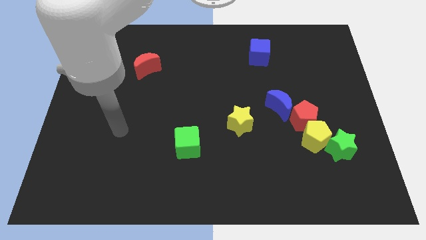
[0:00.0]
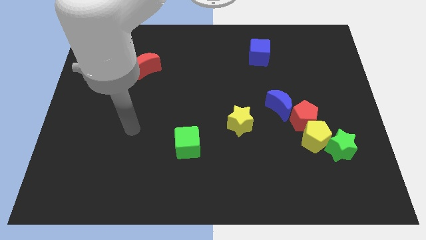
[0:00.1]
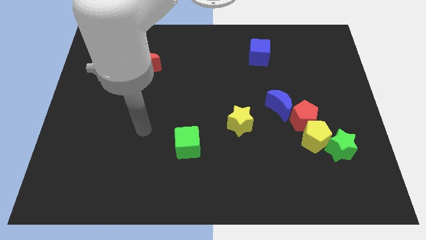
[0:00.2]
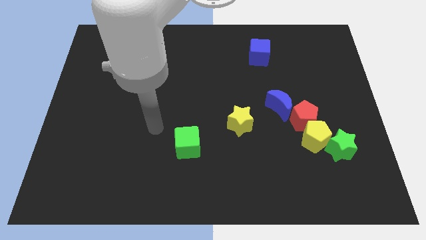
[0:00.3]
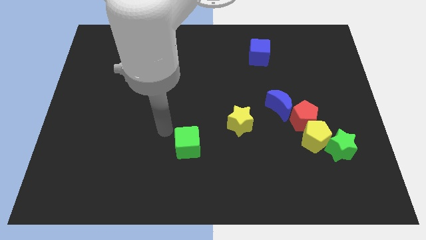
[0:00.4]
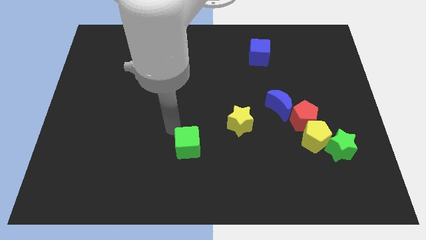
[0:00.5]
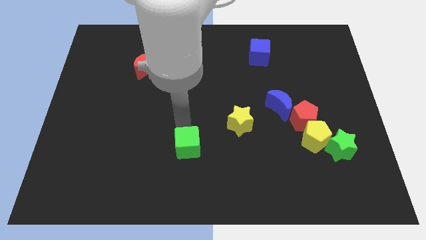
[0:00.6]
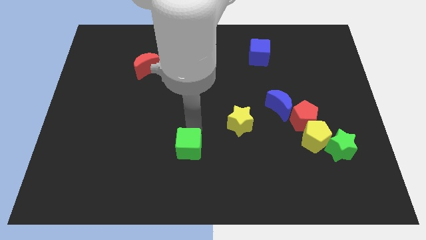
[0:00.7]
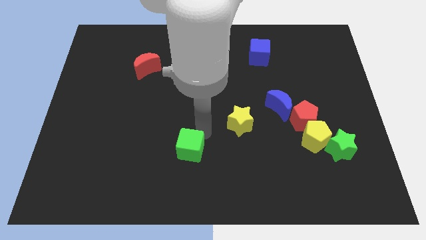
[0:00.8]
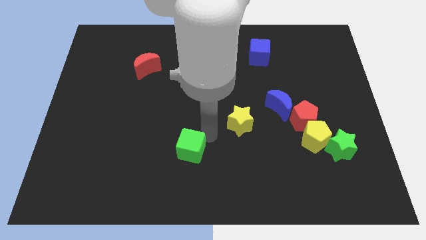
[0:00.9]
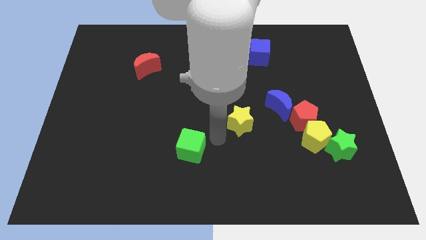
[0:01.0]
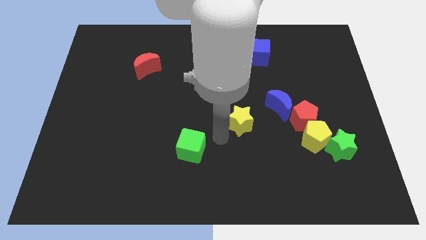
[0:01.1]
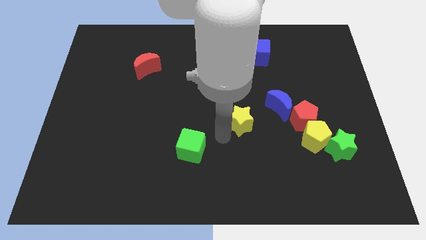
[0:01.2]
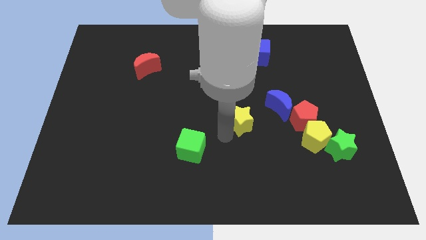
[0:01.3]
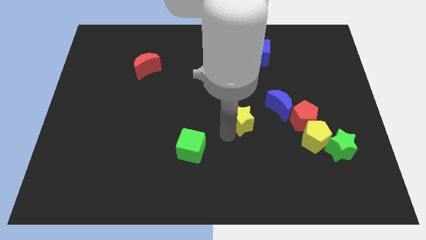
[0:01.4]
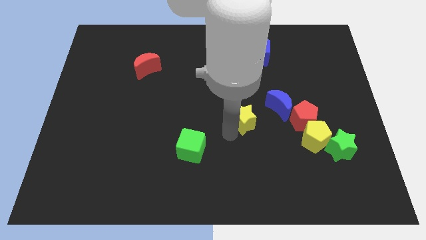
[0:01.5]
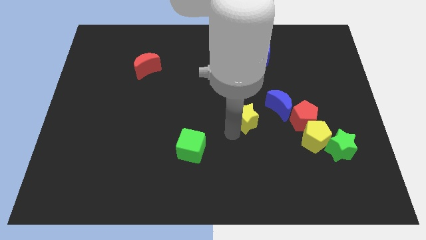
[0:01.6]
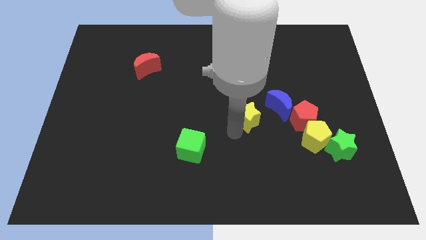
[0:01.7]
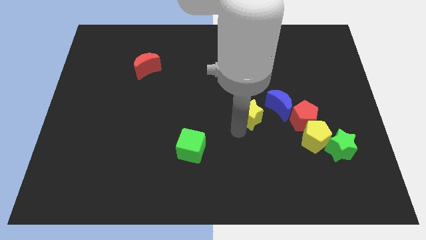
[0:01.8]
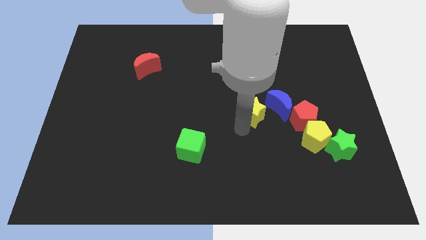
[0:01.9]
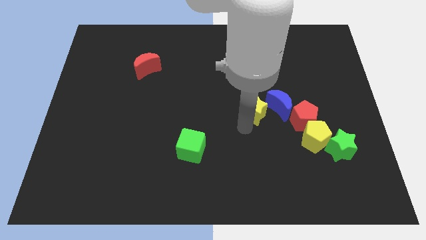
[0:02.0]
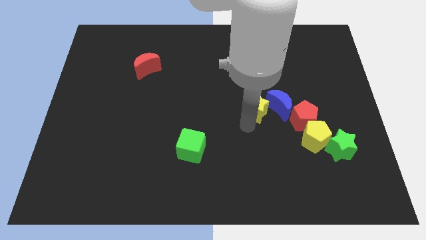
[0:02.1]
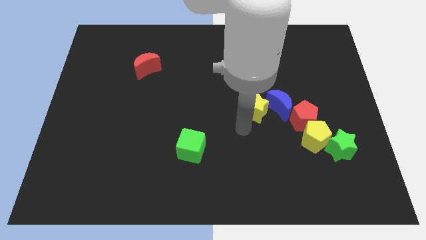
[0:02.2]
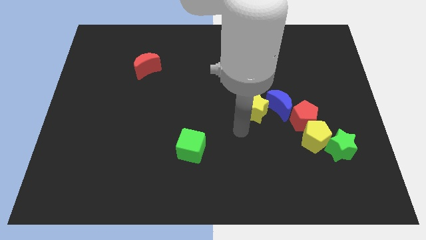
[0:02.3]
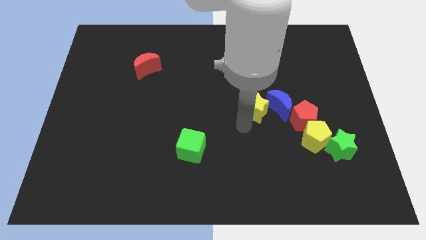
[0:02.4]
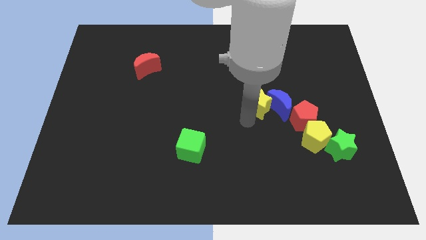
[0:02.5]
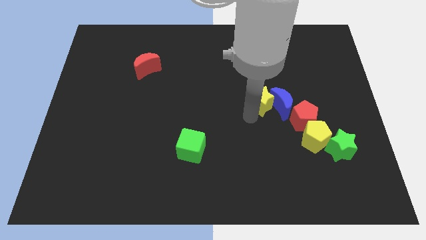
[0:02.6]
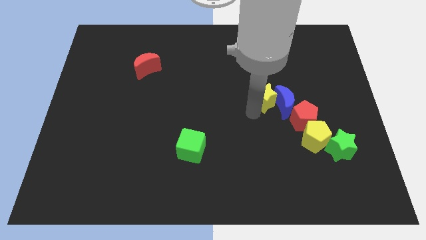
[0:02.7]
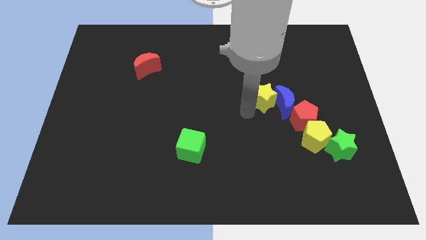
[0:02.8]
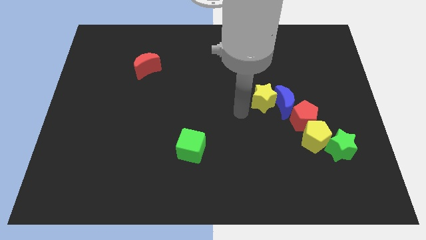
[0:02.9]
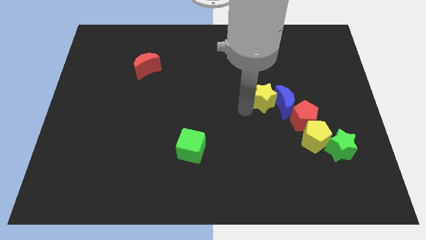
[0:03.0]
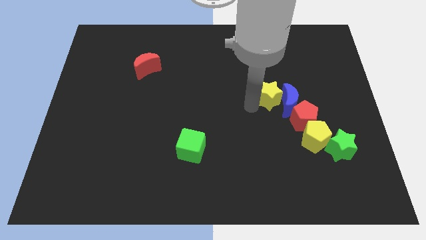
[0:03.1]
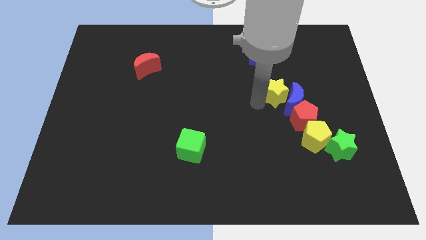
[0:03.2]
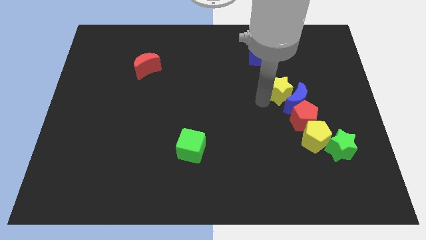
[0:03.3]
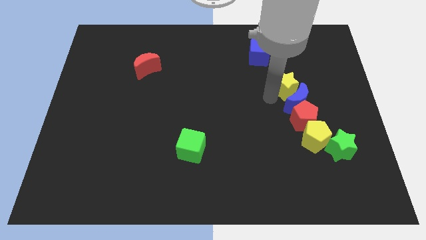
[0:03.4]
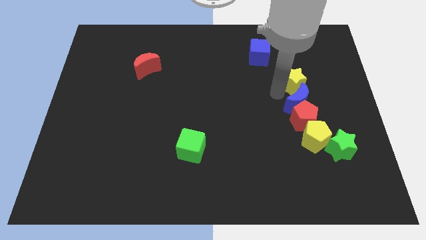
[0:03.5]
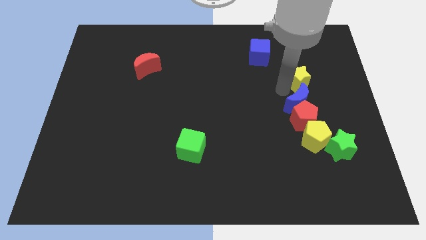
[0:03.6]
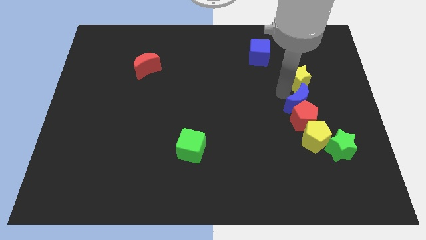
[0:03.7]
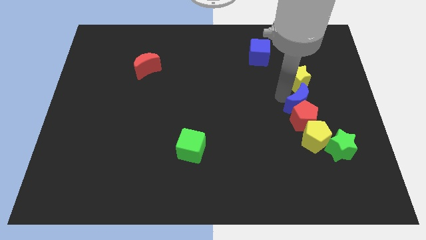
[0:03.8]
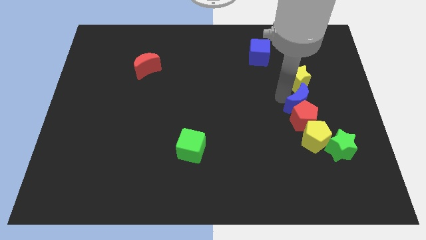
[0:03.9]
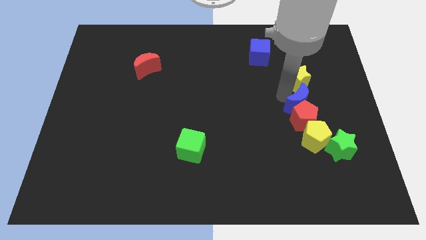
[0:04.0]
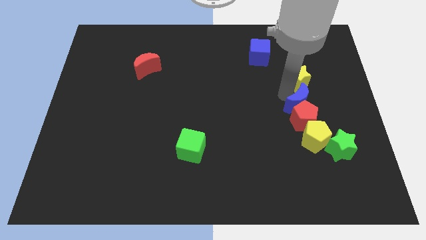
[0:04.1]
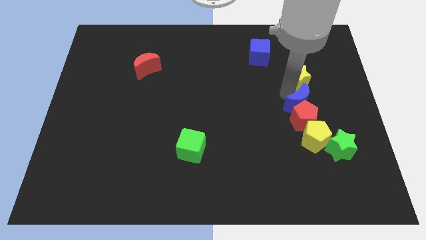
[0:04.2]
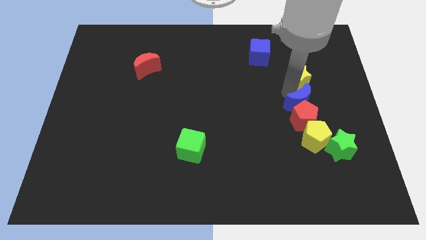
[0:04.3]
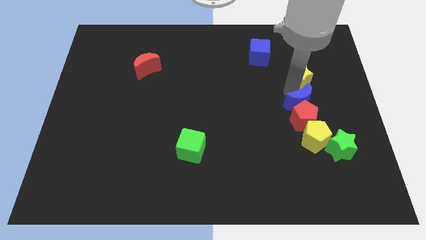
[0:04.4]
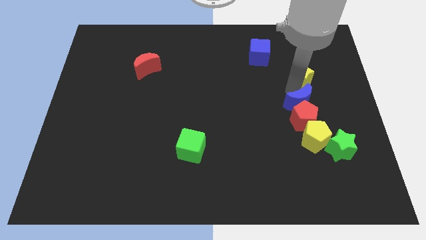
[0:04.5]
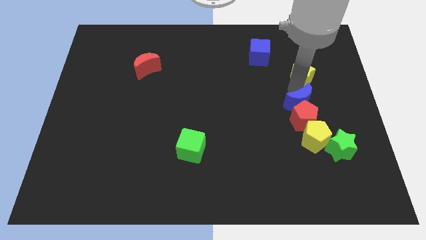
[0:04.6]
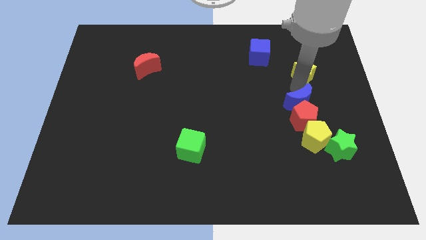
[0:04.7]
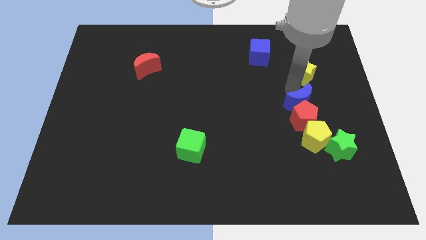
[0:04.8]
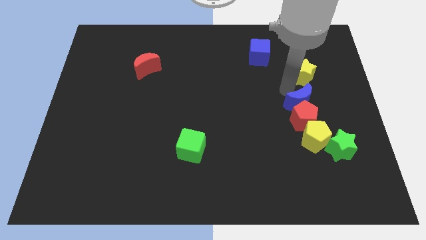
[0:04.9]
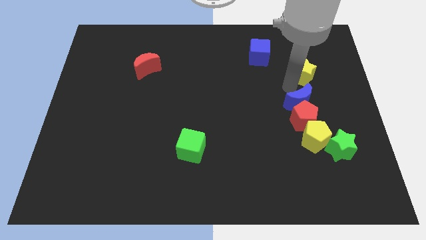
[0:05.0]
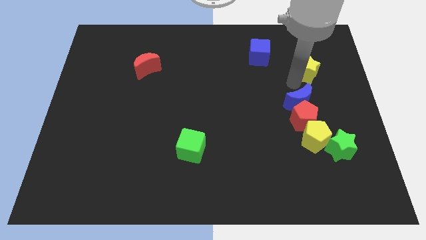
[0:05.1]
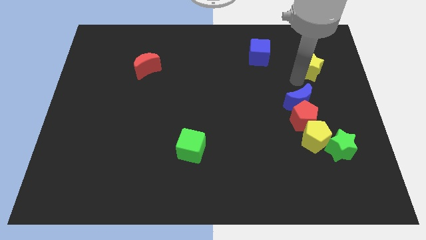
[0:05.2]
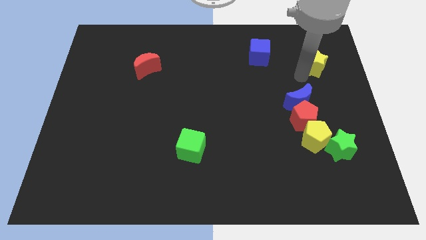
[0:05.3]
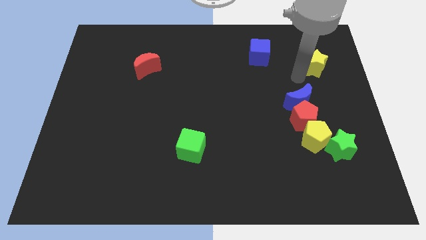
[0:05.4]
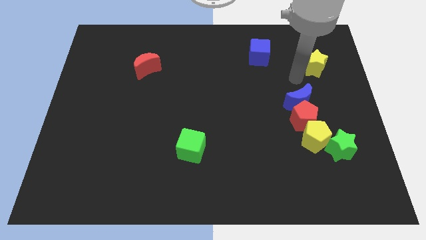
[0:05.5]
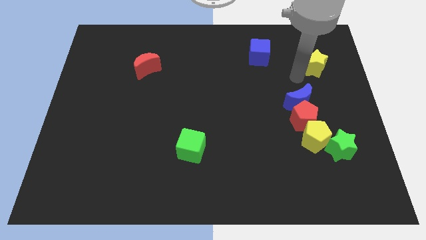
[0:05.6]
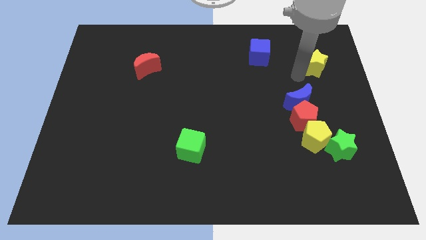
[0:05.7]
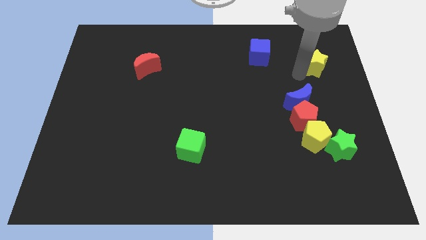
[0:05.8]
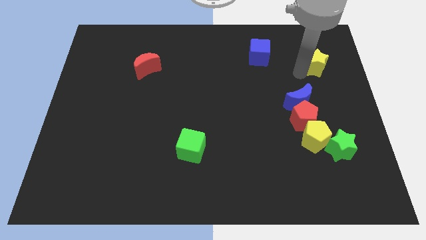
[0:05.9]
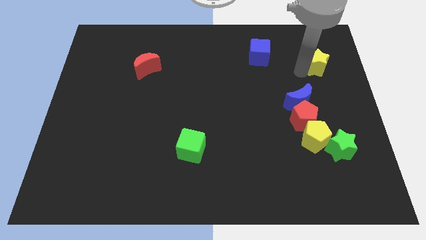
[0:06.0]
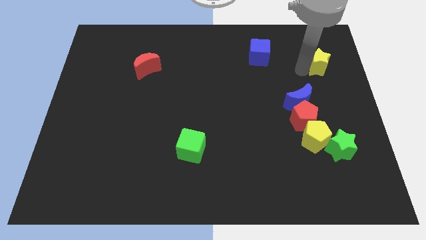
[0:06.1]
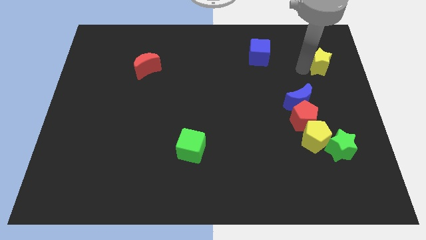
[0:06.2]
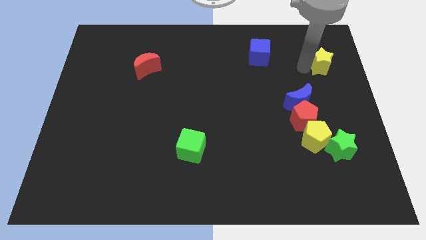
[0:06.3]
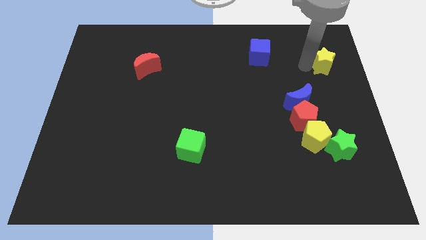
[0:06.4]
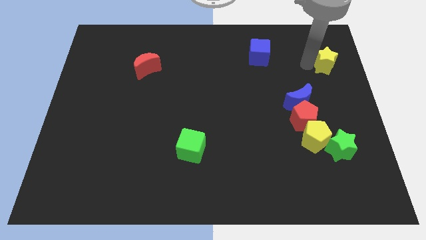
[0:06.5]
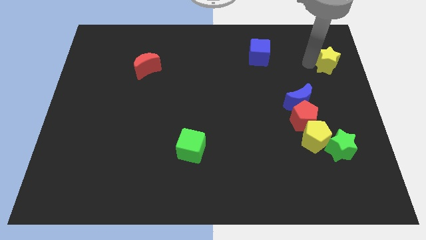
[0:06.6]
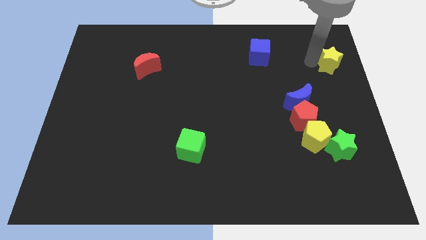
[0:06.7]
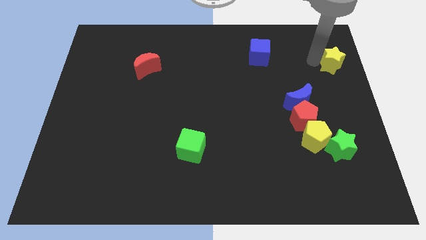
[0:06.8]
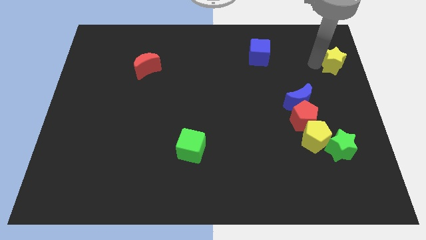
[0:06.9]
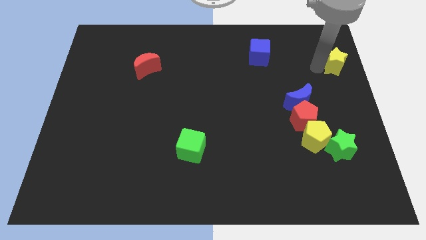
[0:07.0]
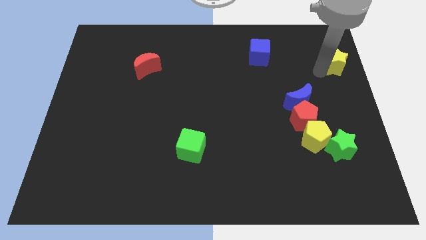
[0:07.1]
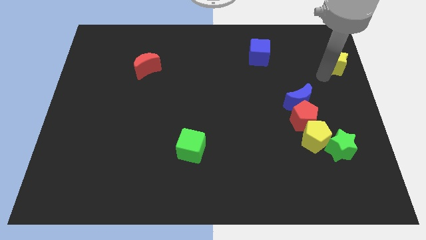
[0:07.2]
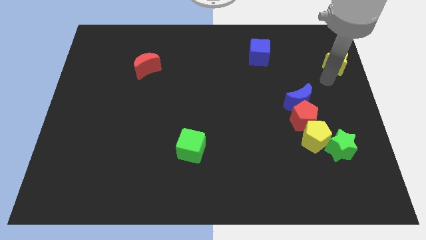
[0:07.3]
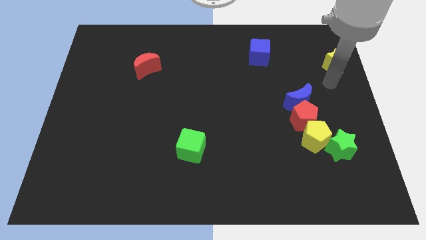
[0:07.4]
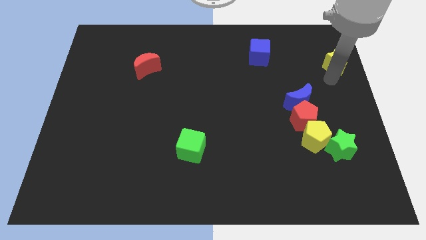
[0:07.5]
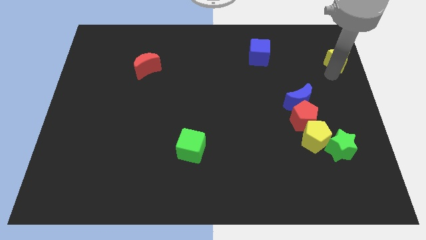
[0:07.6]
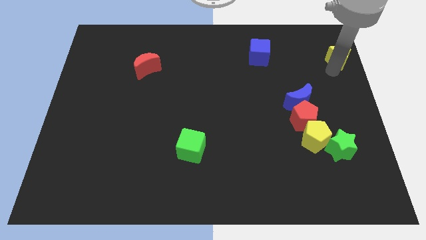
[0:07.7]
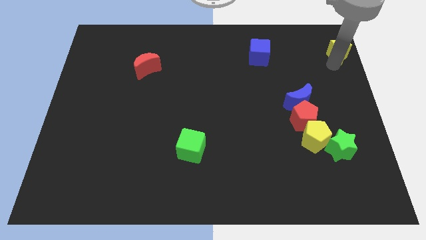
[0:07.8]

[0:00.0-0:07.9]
move the yellow star to the upper right corner
